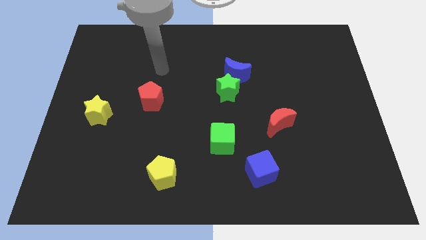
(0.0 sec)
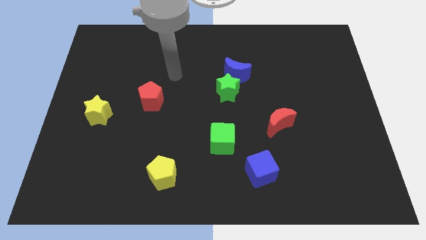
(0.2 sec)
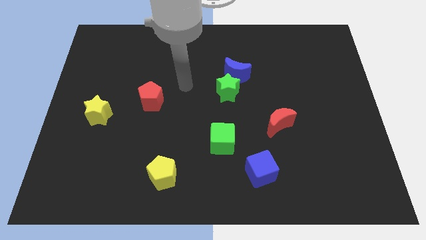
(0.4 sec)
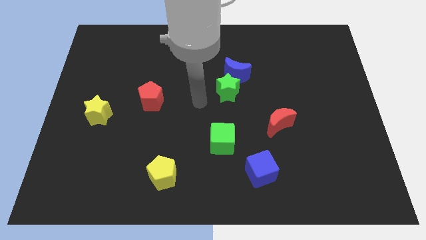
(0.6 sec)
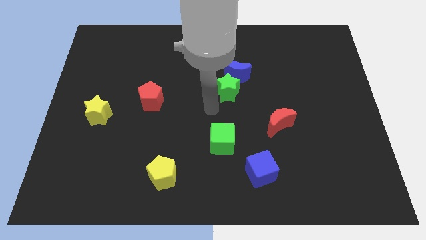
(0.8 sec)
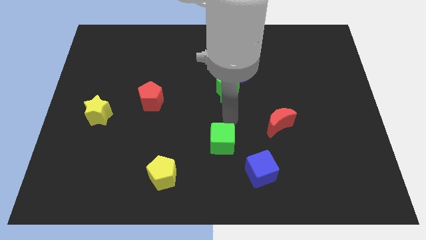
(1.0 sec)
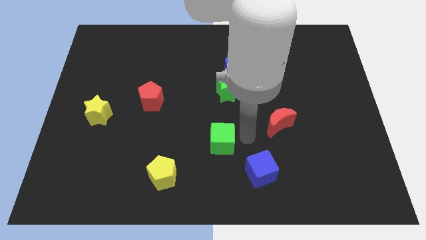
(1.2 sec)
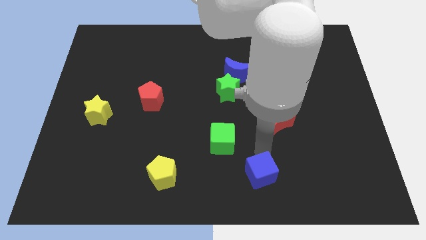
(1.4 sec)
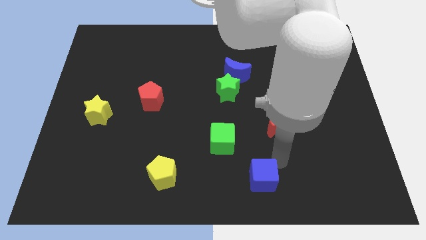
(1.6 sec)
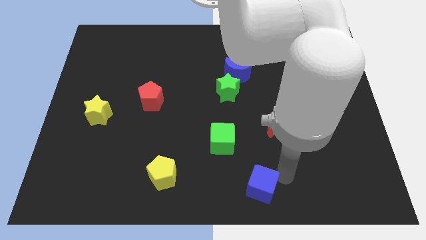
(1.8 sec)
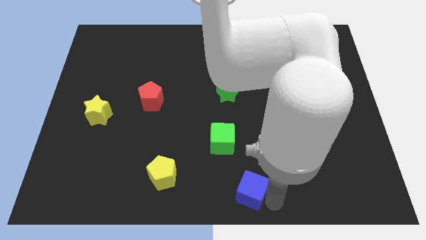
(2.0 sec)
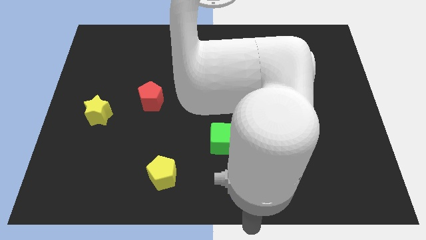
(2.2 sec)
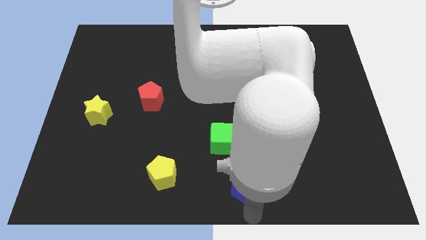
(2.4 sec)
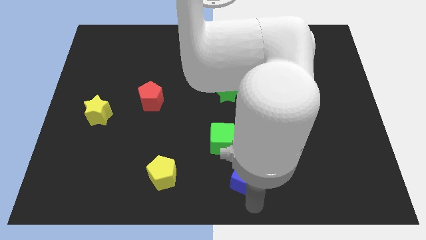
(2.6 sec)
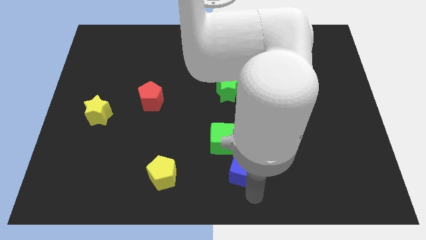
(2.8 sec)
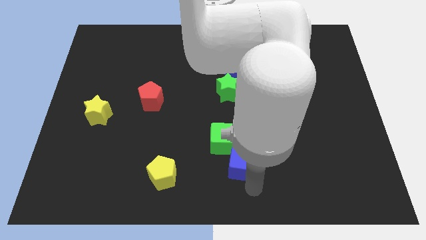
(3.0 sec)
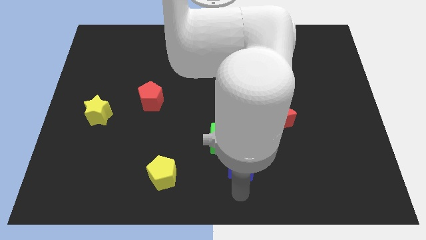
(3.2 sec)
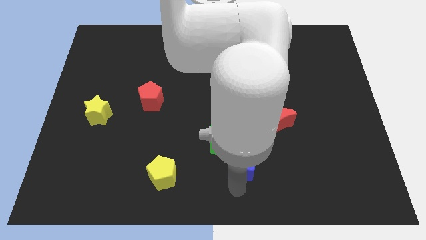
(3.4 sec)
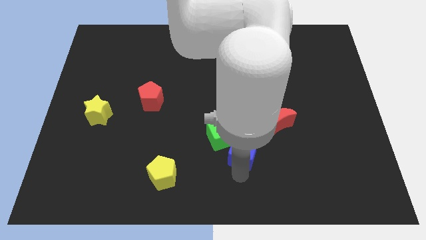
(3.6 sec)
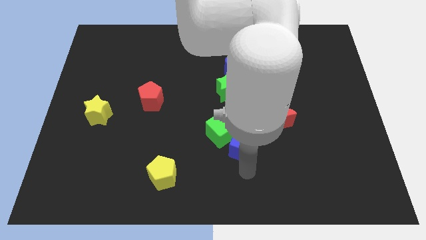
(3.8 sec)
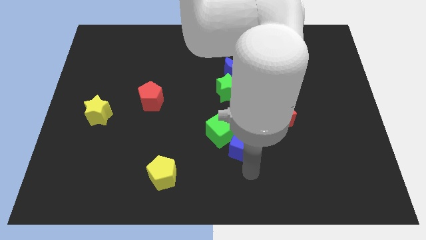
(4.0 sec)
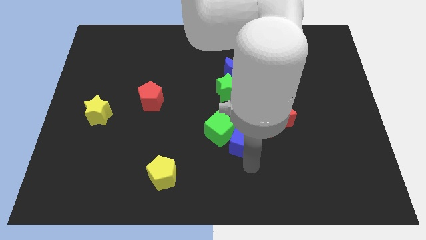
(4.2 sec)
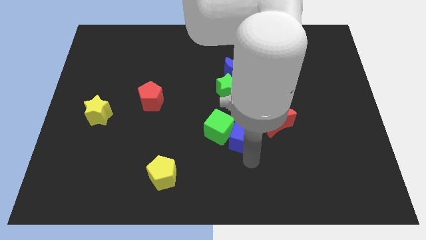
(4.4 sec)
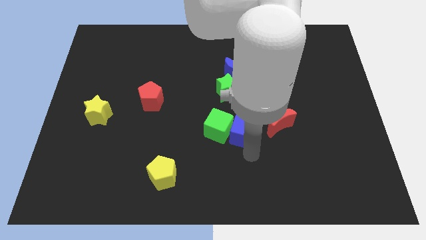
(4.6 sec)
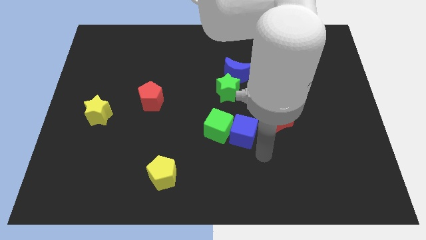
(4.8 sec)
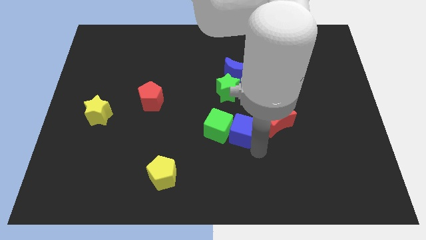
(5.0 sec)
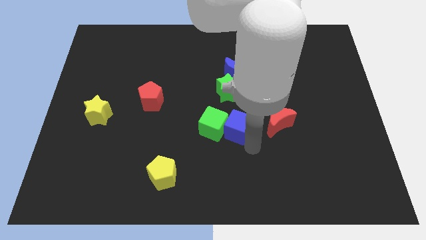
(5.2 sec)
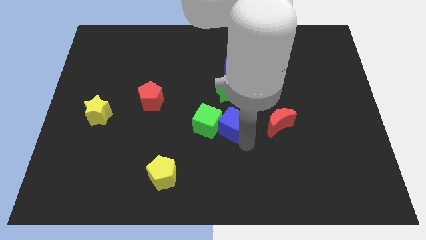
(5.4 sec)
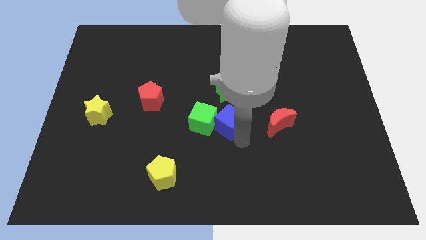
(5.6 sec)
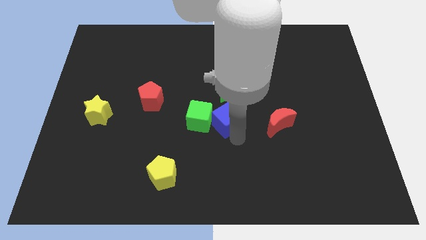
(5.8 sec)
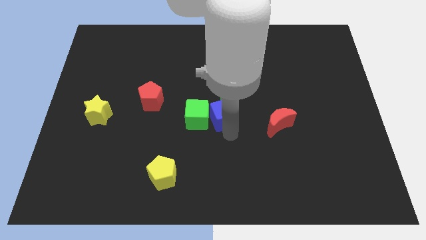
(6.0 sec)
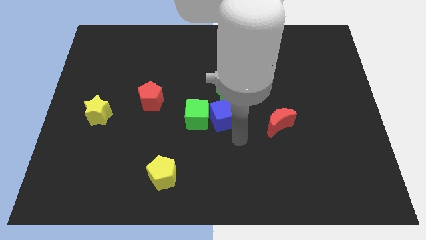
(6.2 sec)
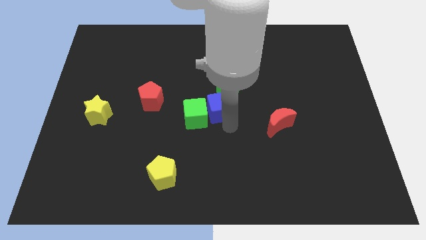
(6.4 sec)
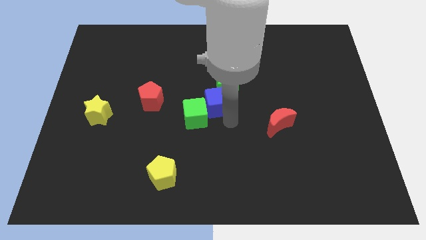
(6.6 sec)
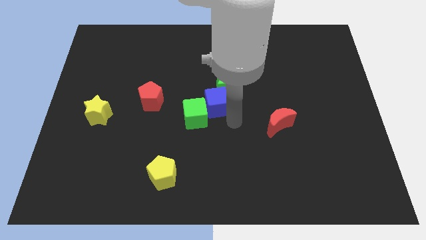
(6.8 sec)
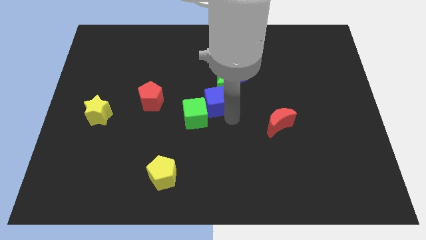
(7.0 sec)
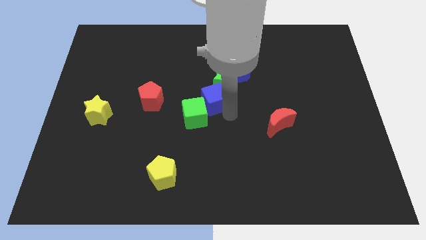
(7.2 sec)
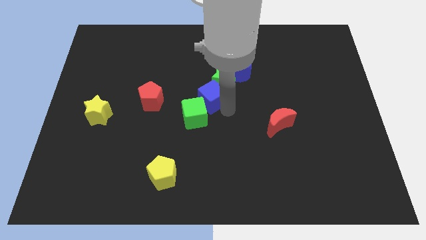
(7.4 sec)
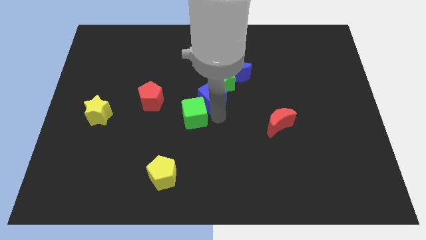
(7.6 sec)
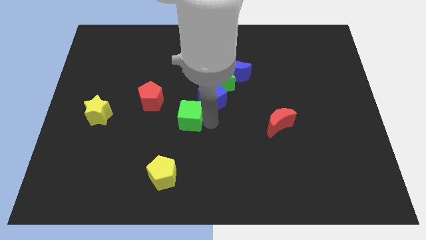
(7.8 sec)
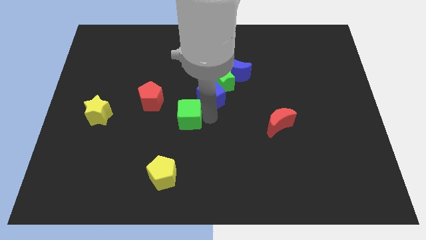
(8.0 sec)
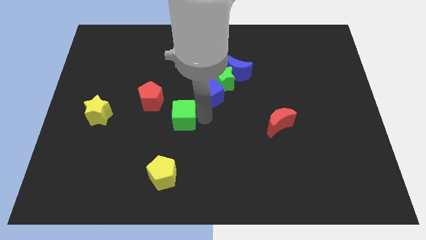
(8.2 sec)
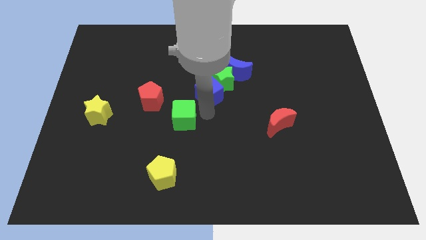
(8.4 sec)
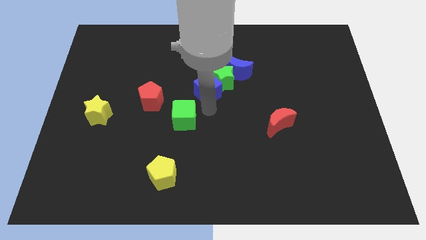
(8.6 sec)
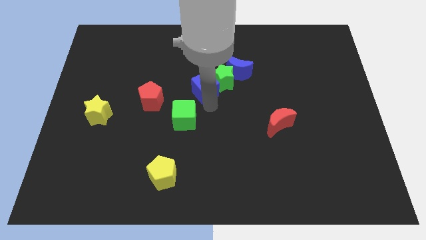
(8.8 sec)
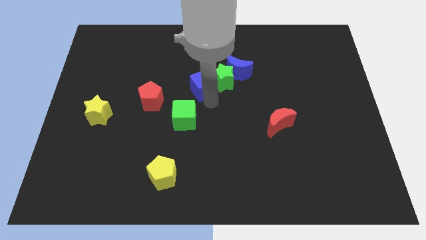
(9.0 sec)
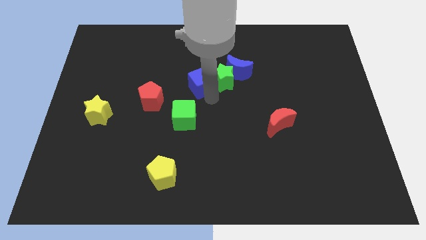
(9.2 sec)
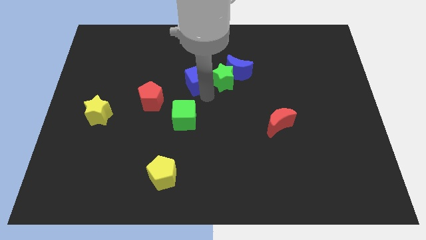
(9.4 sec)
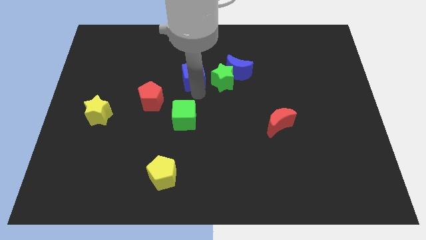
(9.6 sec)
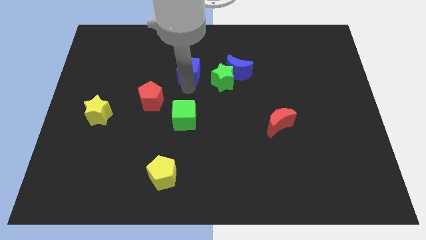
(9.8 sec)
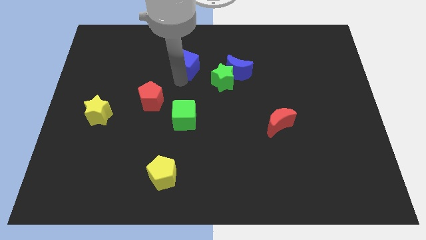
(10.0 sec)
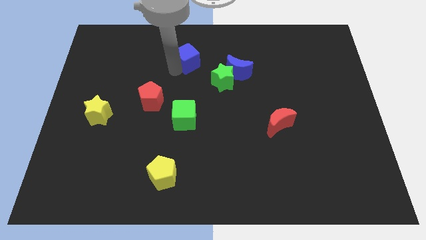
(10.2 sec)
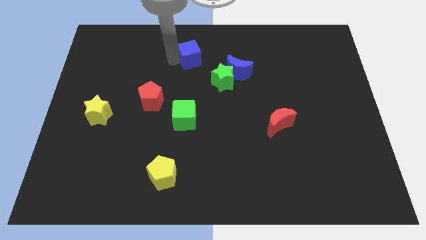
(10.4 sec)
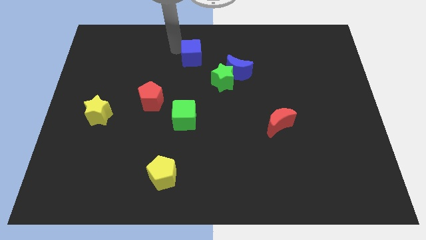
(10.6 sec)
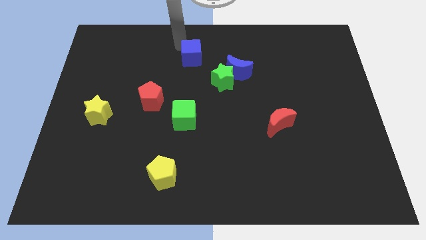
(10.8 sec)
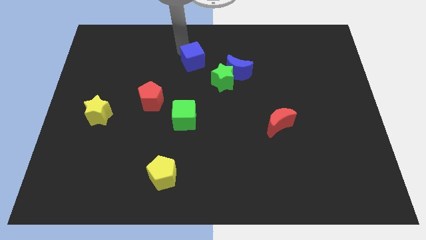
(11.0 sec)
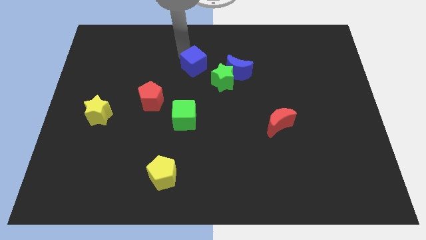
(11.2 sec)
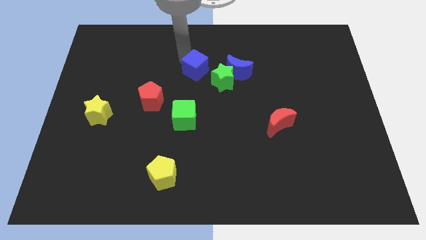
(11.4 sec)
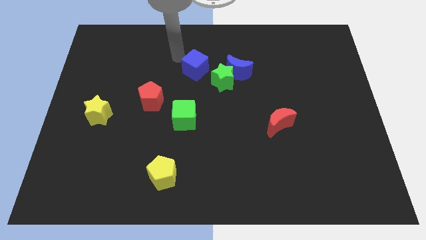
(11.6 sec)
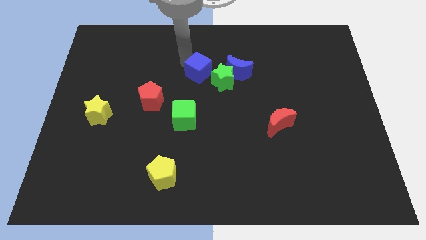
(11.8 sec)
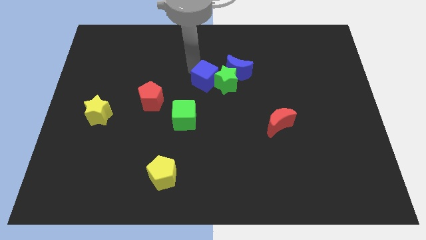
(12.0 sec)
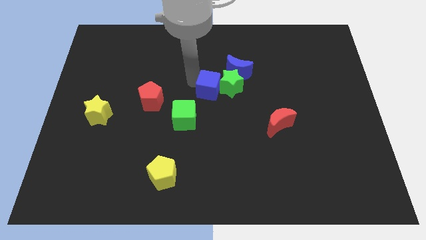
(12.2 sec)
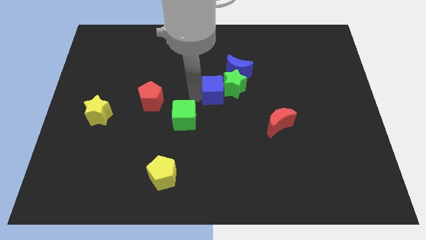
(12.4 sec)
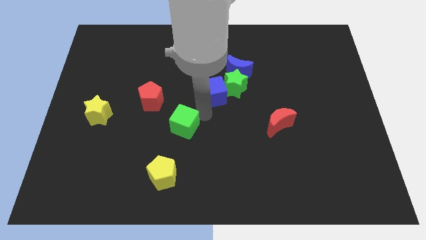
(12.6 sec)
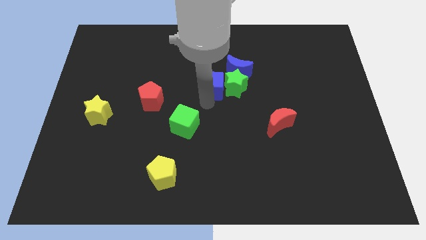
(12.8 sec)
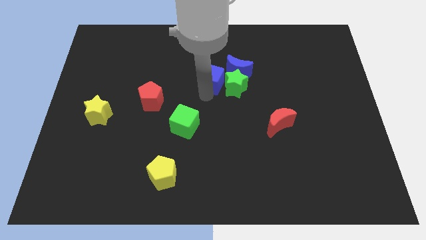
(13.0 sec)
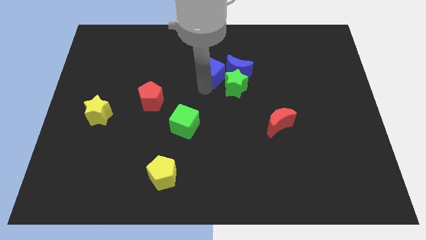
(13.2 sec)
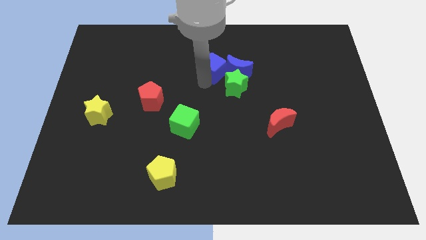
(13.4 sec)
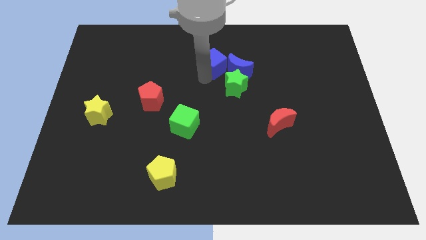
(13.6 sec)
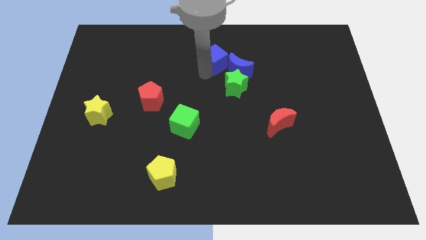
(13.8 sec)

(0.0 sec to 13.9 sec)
push the blue cube above the green star

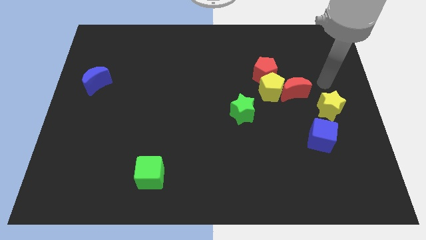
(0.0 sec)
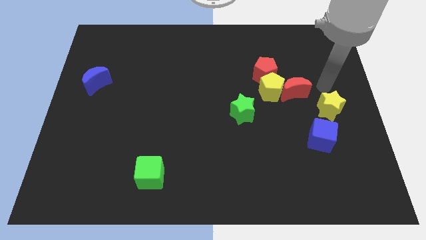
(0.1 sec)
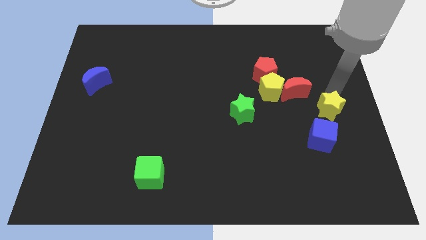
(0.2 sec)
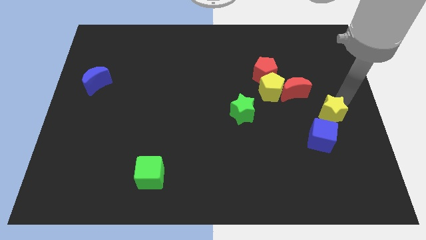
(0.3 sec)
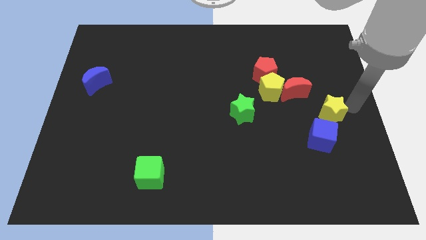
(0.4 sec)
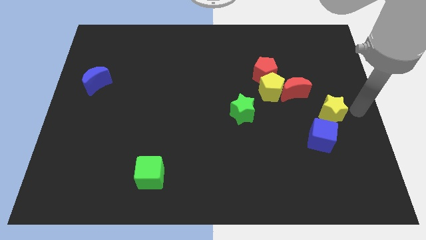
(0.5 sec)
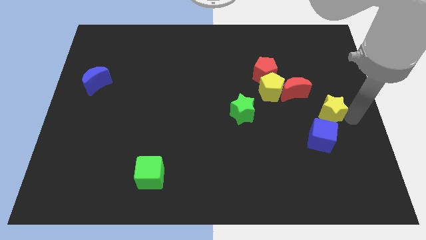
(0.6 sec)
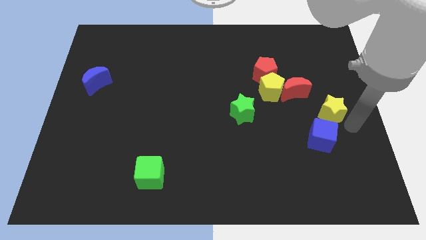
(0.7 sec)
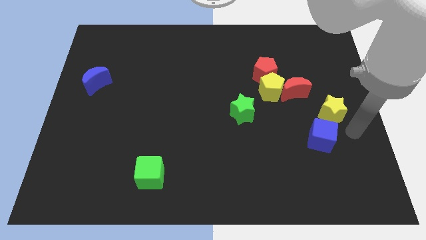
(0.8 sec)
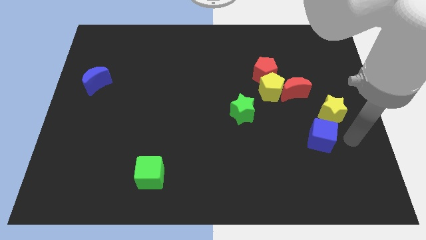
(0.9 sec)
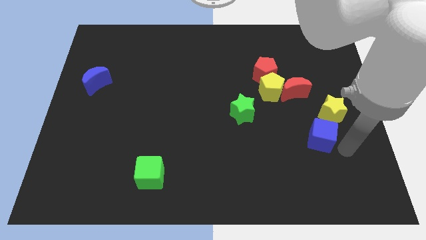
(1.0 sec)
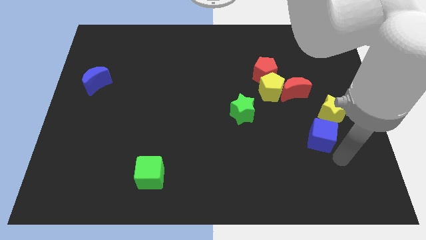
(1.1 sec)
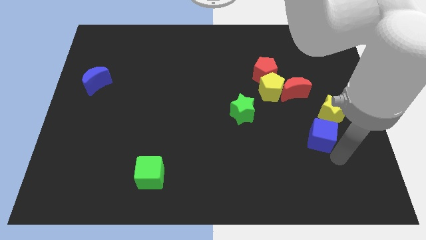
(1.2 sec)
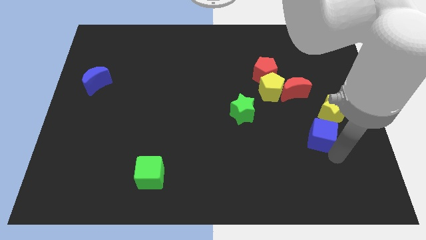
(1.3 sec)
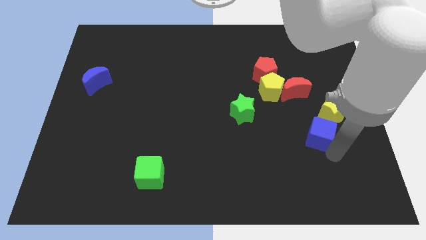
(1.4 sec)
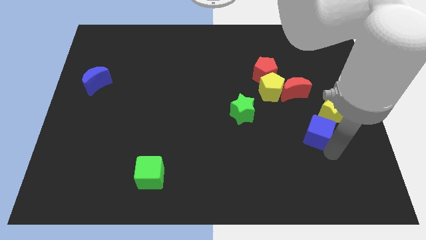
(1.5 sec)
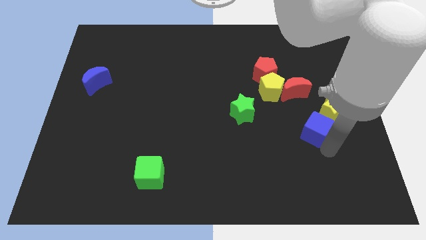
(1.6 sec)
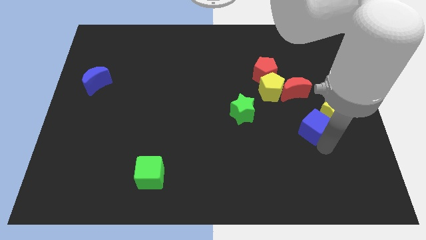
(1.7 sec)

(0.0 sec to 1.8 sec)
push the blue cube left of the yellow star
